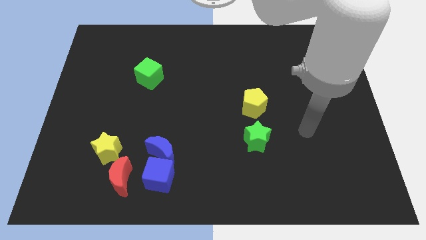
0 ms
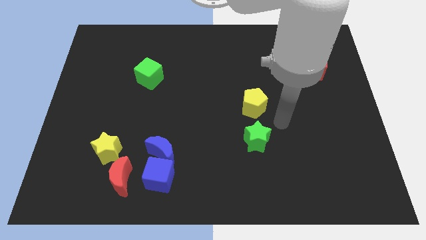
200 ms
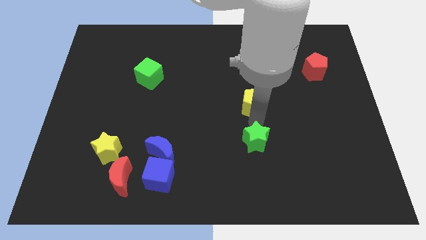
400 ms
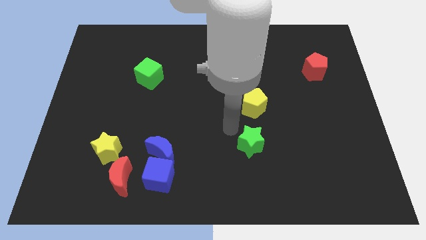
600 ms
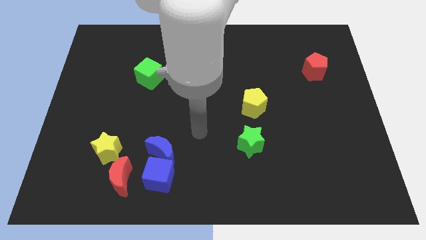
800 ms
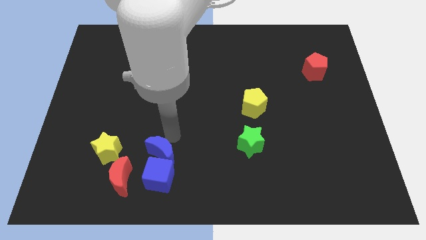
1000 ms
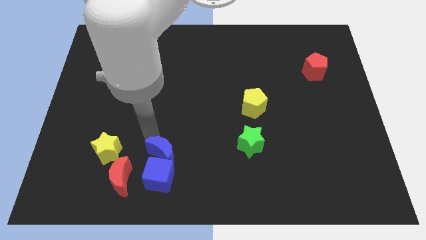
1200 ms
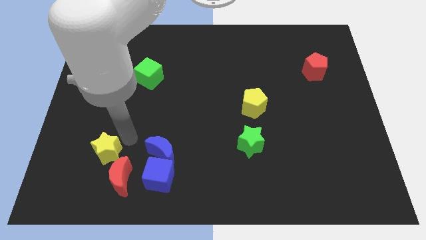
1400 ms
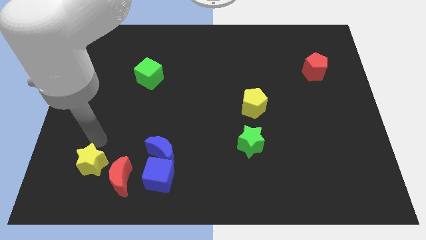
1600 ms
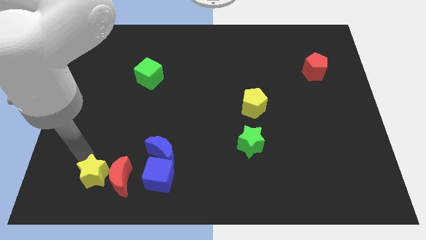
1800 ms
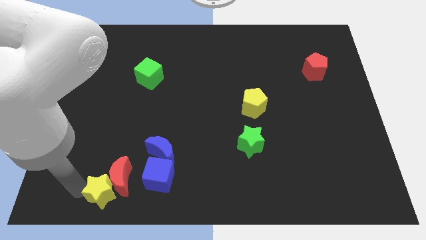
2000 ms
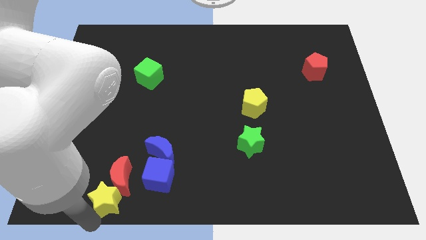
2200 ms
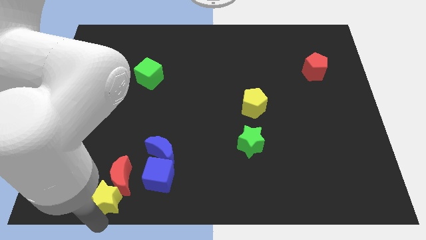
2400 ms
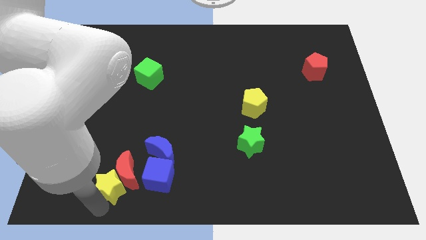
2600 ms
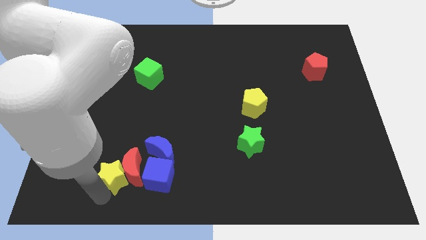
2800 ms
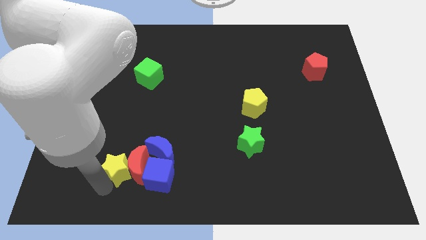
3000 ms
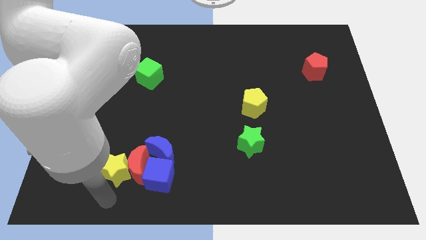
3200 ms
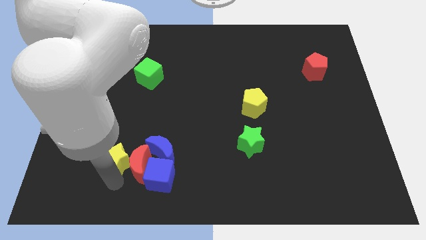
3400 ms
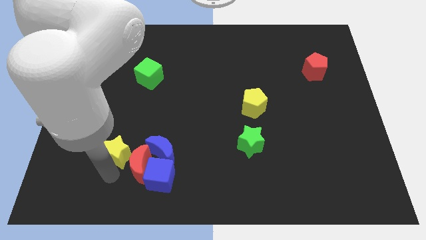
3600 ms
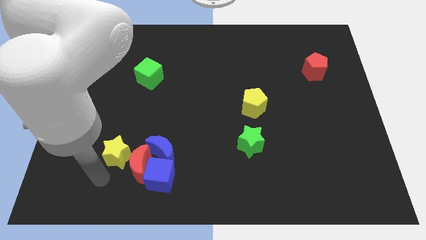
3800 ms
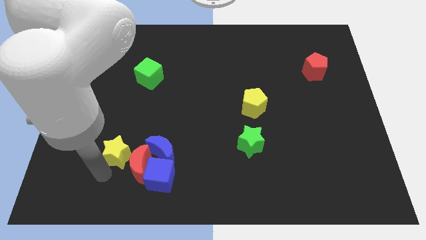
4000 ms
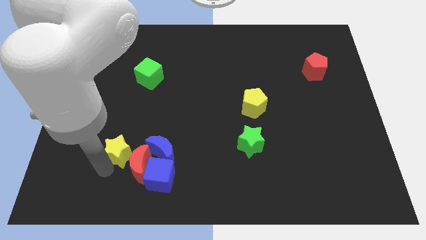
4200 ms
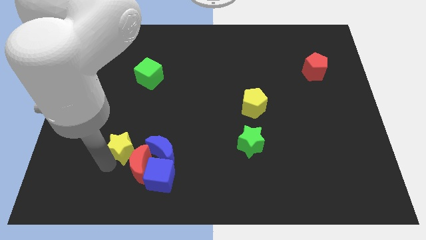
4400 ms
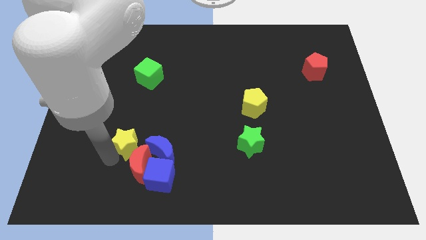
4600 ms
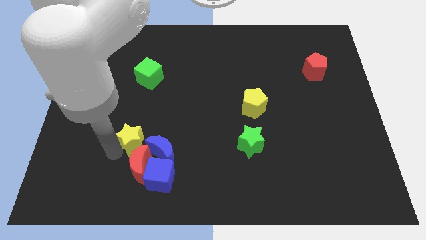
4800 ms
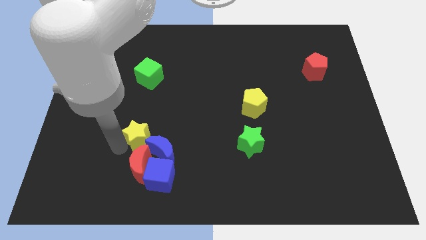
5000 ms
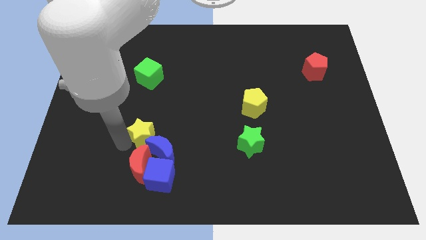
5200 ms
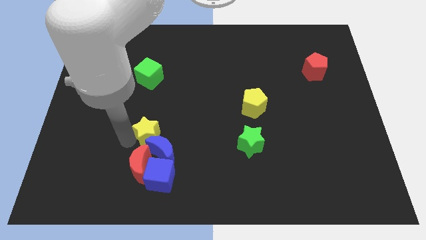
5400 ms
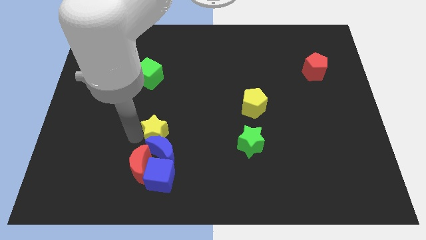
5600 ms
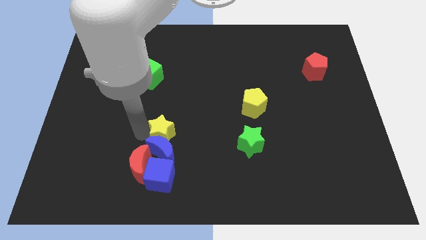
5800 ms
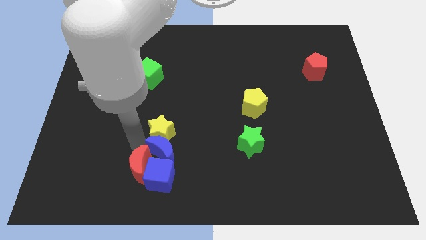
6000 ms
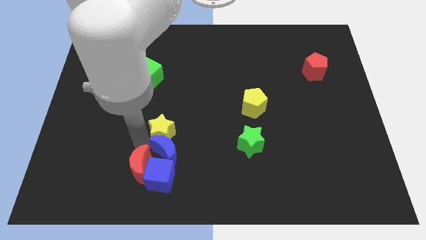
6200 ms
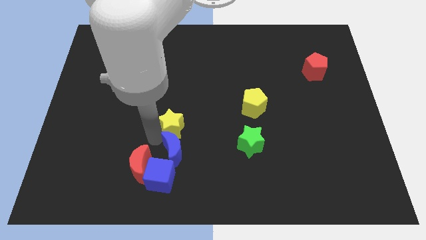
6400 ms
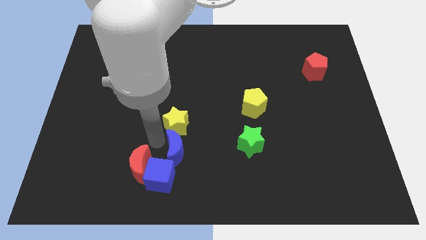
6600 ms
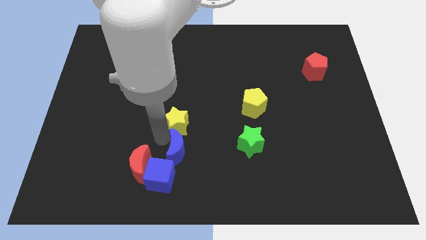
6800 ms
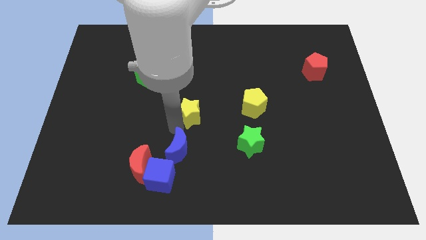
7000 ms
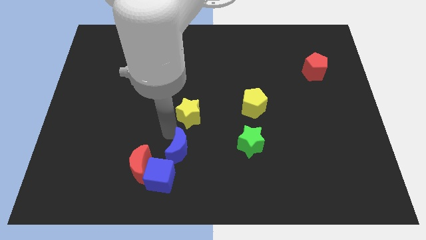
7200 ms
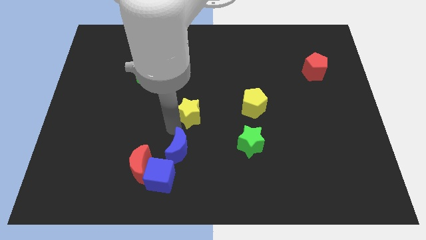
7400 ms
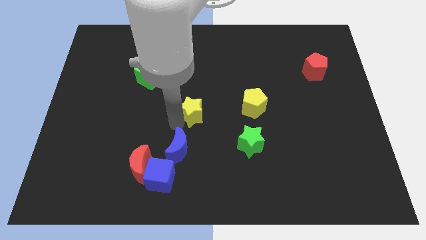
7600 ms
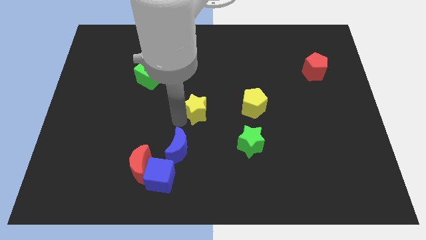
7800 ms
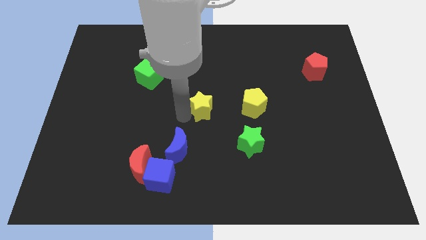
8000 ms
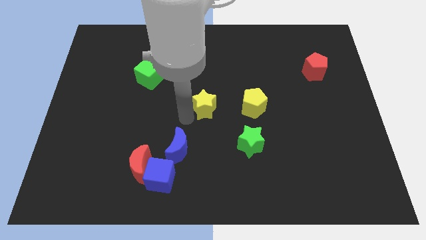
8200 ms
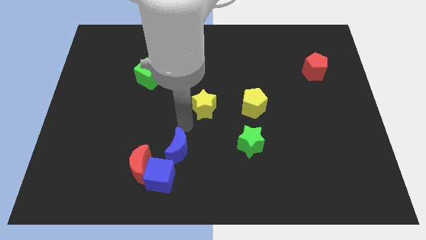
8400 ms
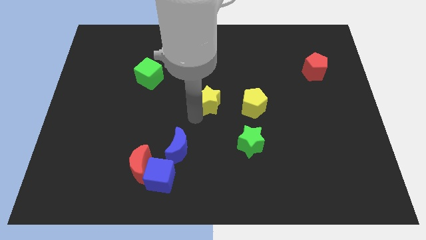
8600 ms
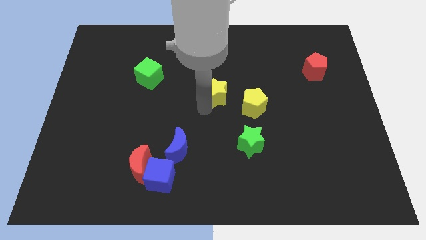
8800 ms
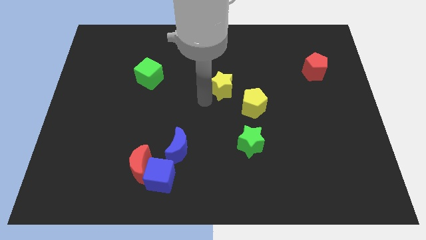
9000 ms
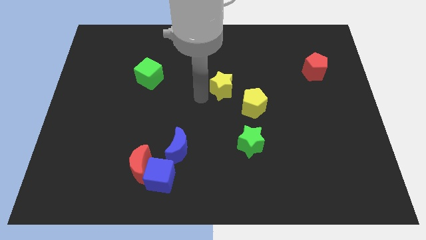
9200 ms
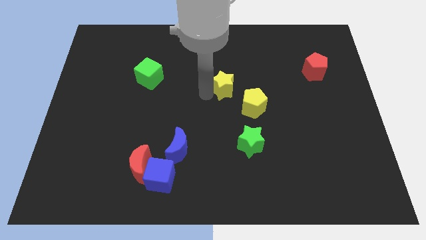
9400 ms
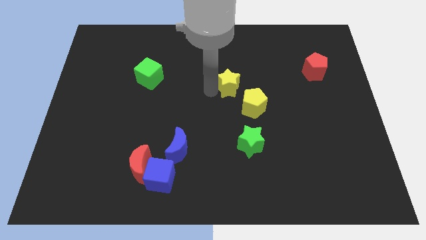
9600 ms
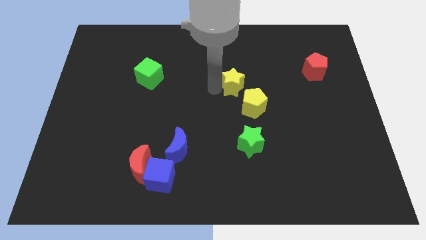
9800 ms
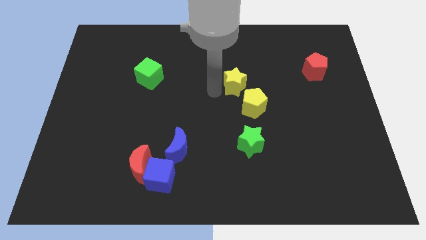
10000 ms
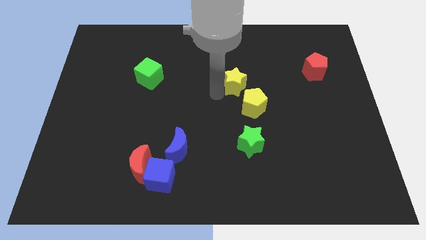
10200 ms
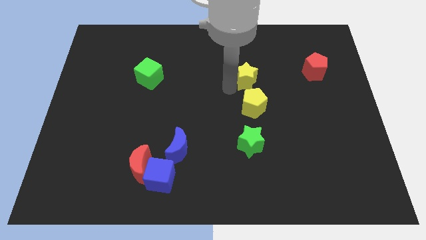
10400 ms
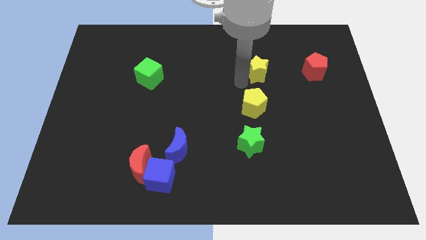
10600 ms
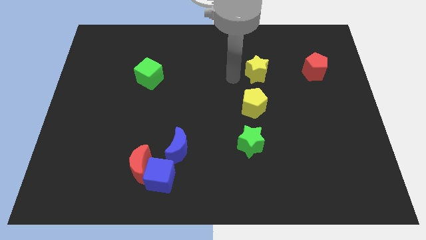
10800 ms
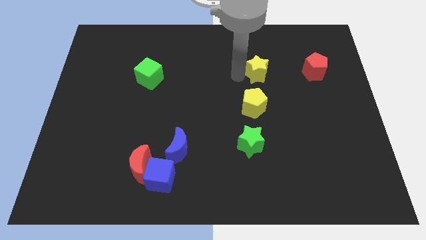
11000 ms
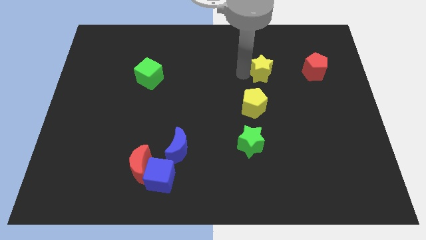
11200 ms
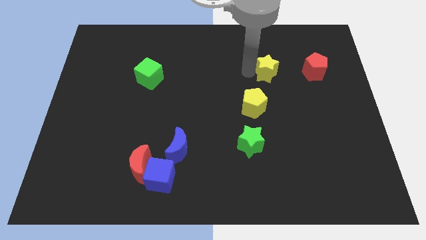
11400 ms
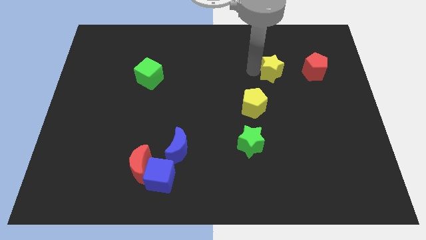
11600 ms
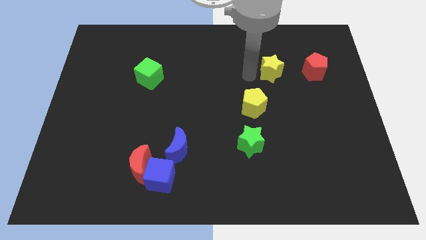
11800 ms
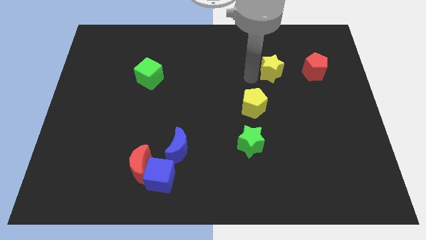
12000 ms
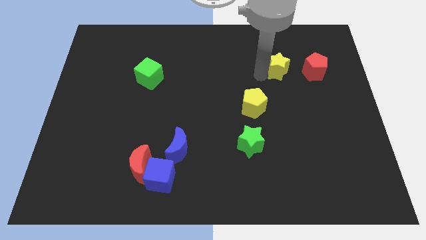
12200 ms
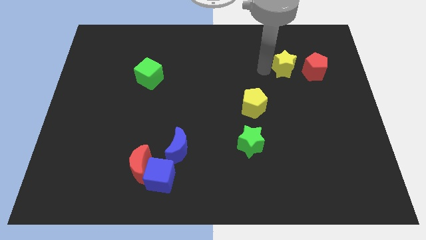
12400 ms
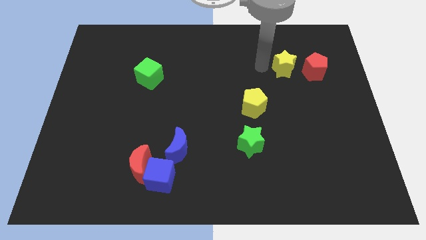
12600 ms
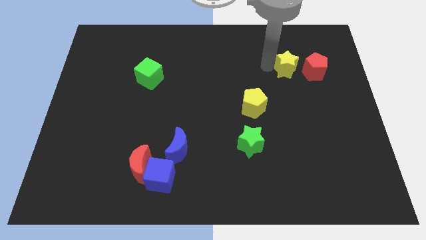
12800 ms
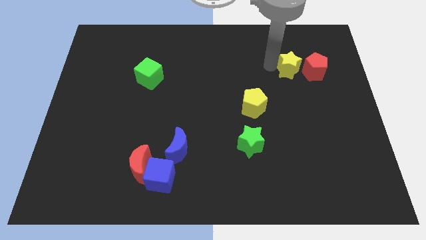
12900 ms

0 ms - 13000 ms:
move the yellow star towards the red pentagon

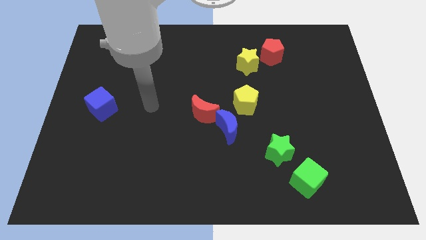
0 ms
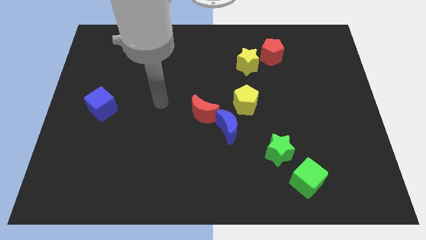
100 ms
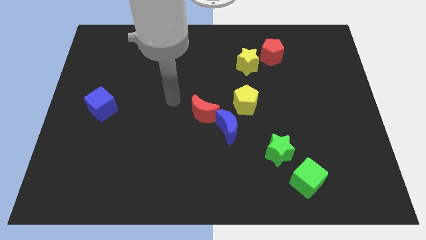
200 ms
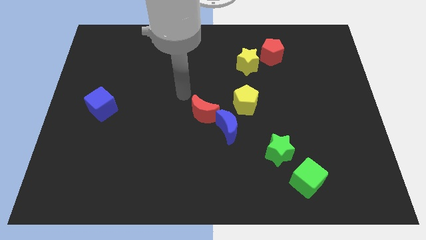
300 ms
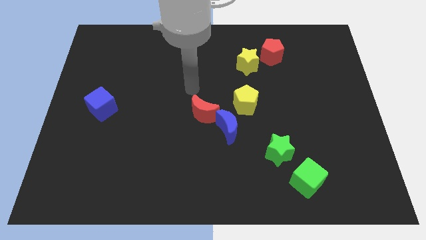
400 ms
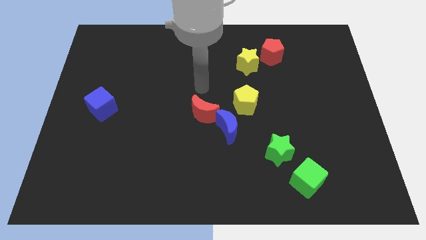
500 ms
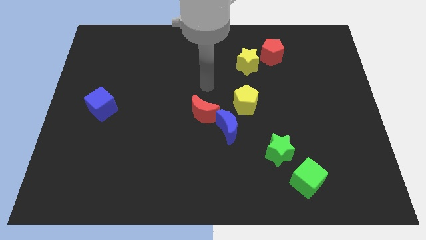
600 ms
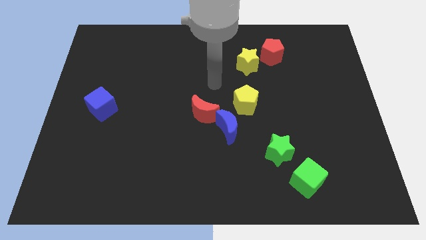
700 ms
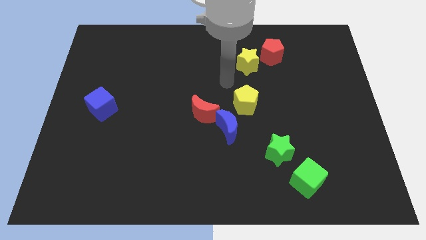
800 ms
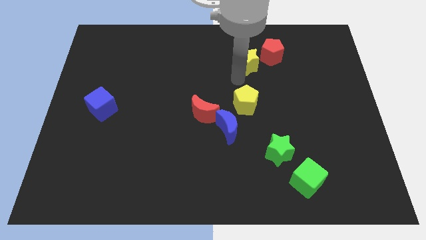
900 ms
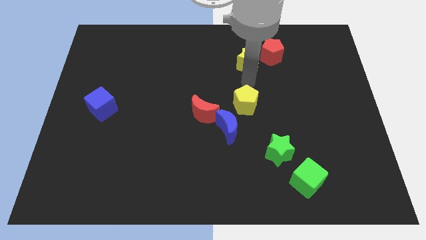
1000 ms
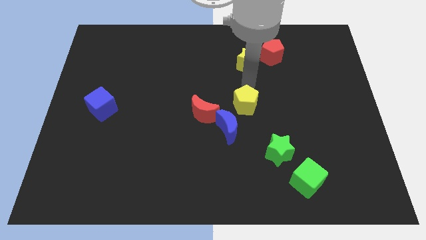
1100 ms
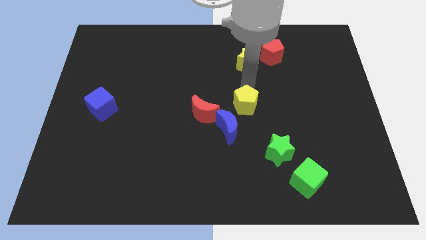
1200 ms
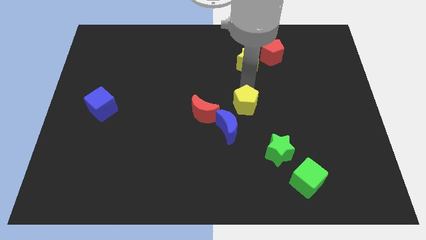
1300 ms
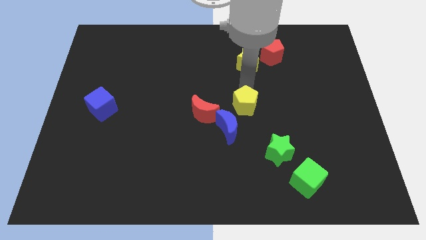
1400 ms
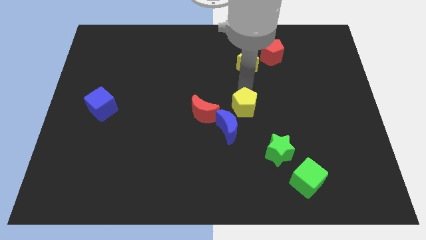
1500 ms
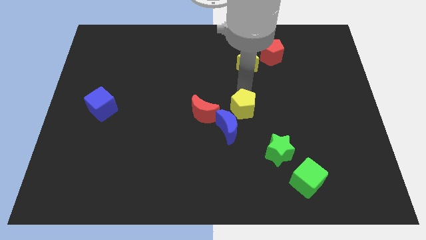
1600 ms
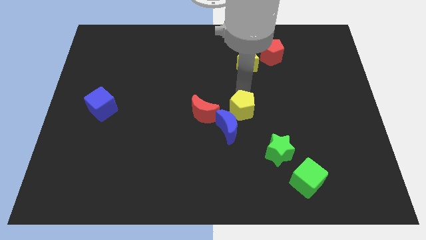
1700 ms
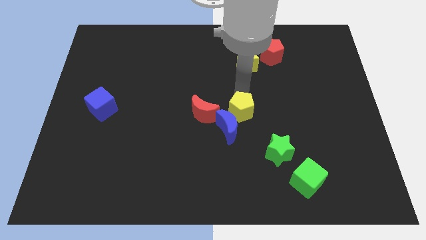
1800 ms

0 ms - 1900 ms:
push the yellow pentagon towards the blue moon

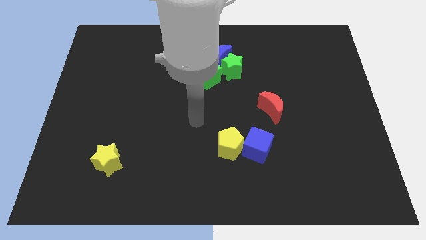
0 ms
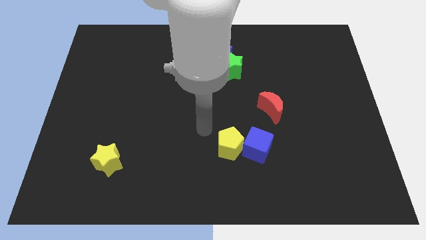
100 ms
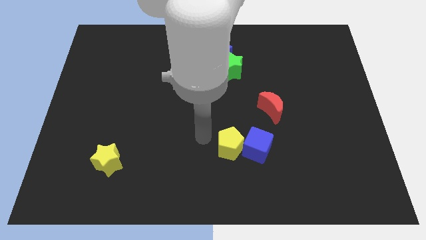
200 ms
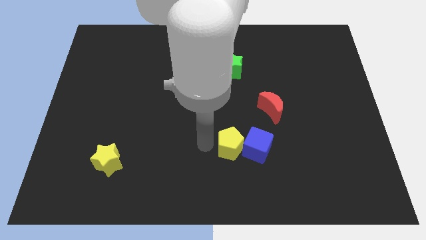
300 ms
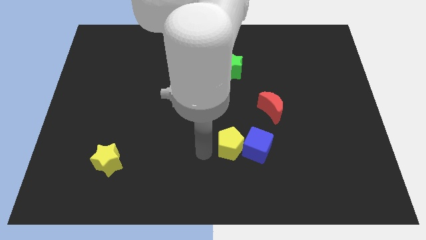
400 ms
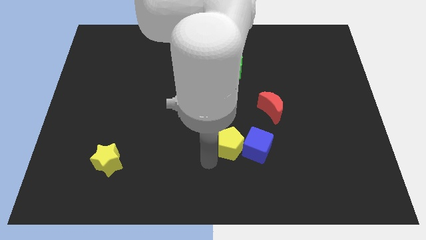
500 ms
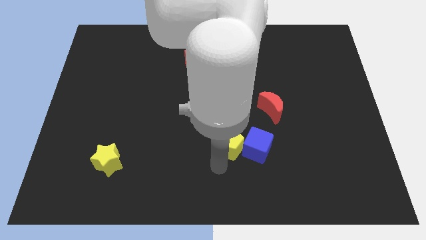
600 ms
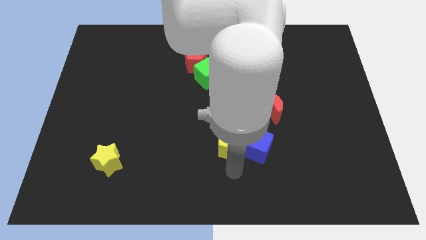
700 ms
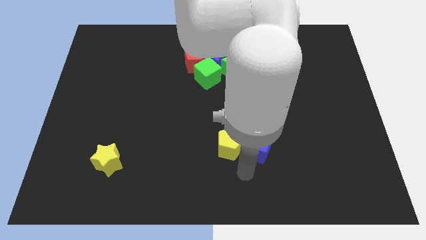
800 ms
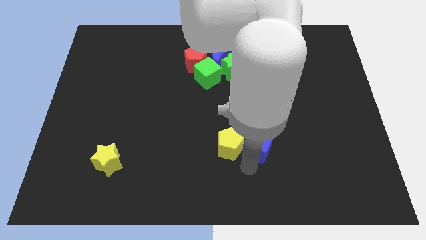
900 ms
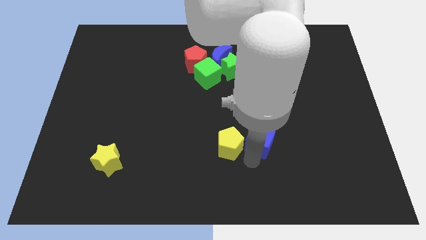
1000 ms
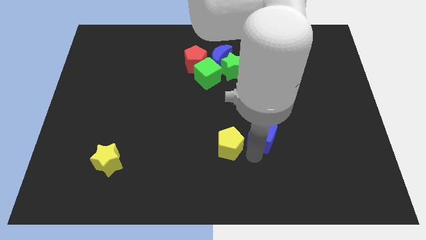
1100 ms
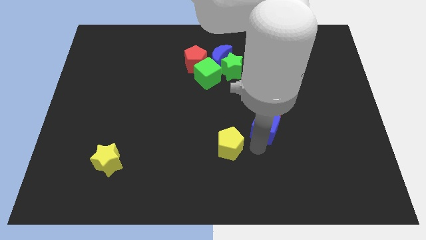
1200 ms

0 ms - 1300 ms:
move the blue cube close to the red moon
